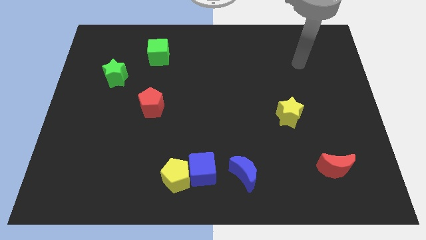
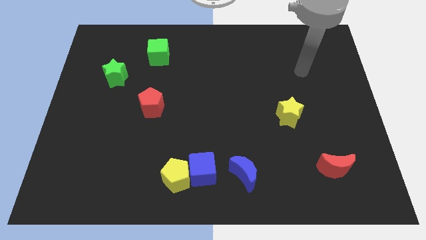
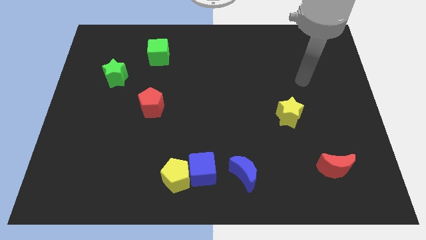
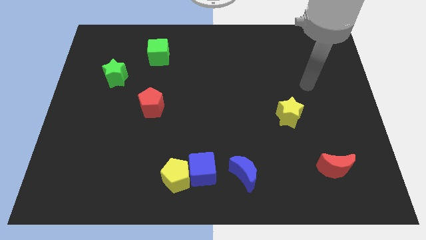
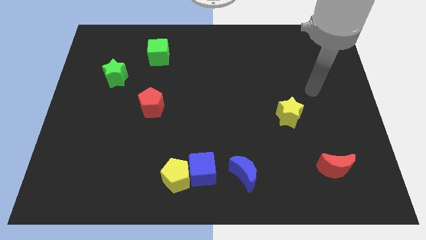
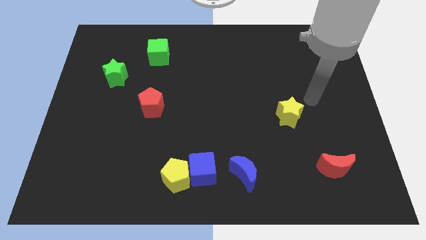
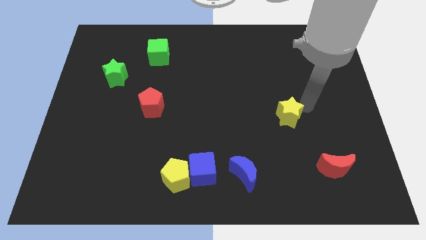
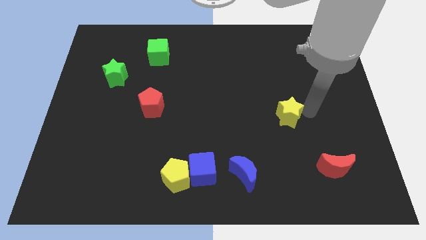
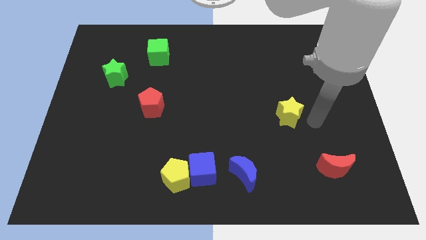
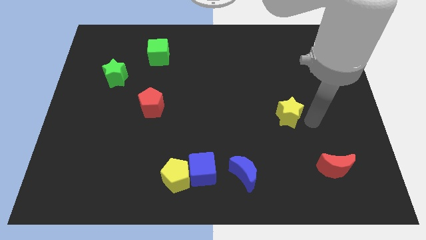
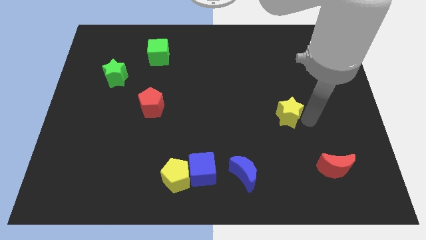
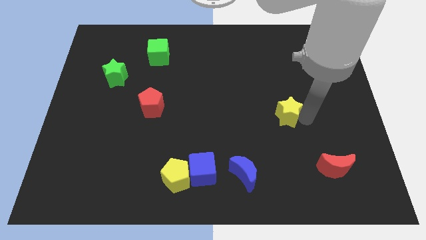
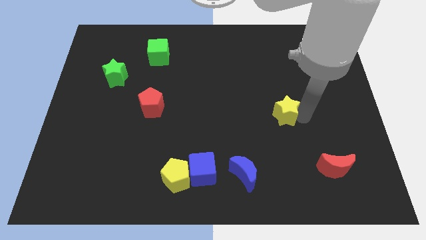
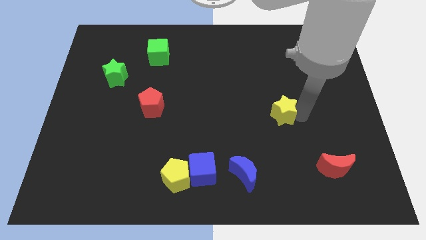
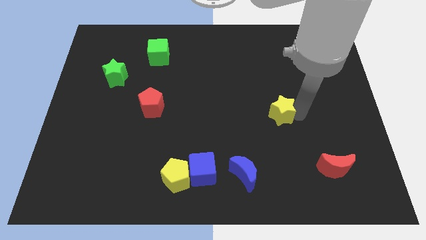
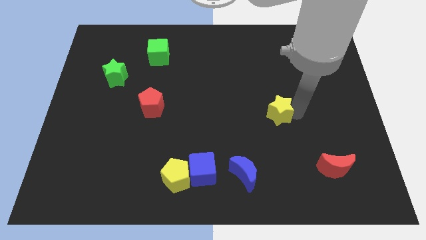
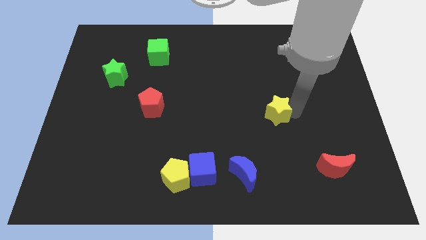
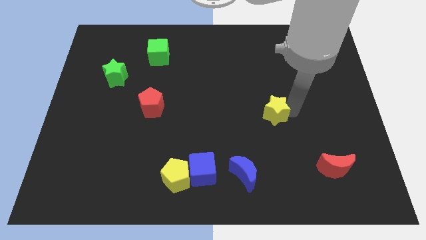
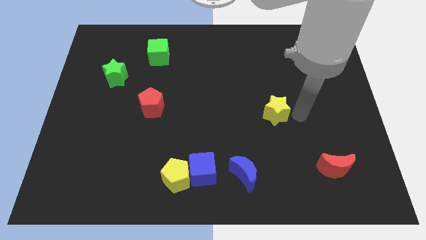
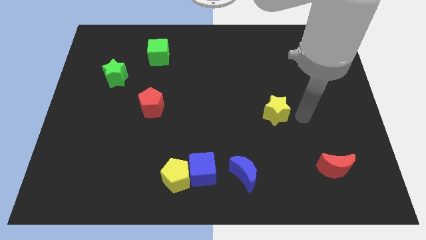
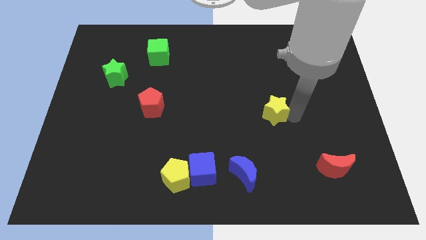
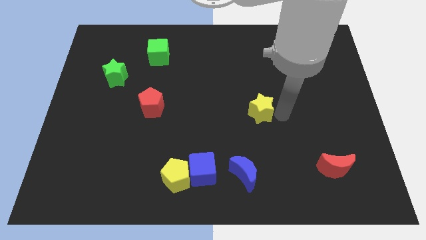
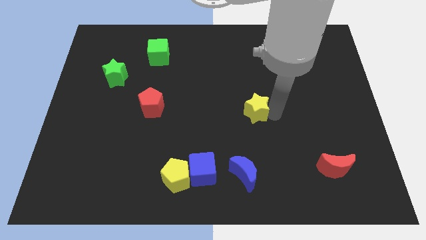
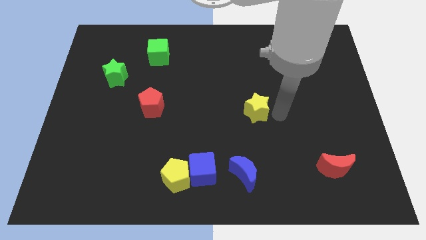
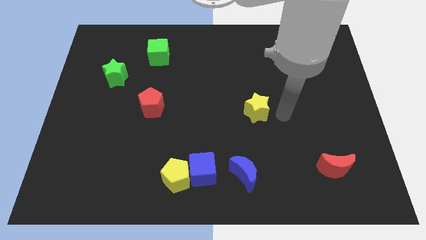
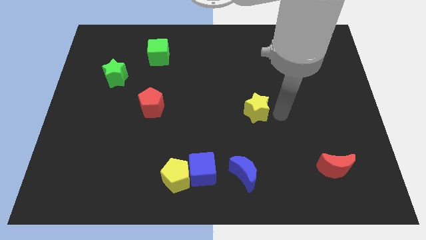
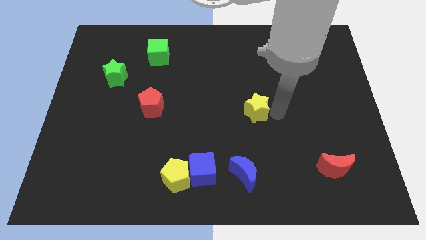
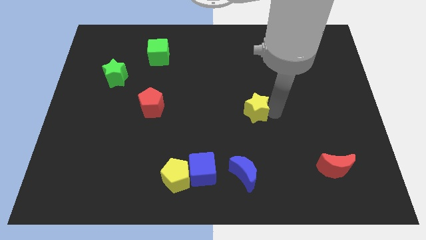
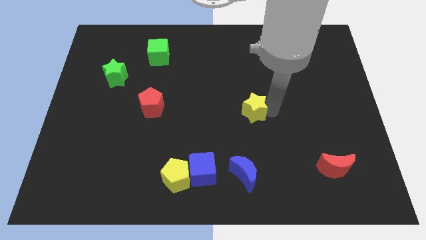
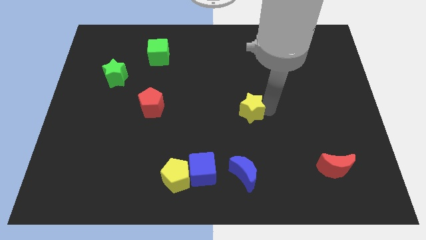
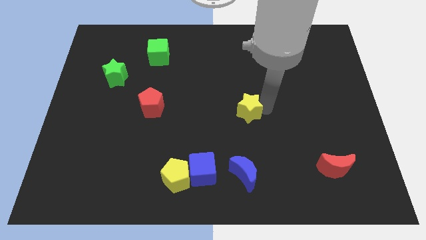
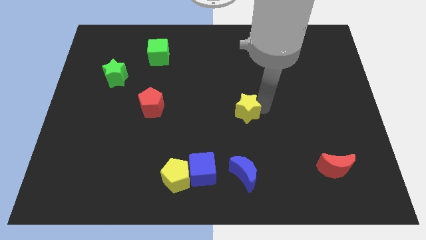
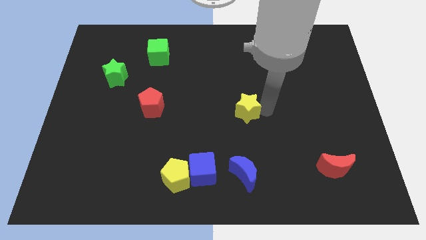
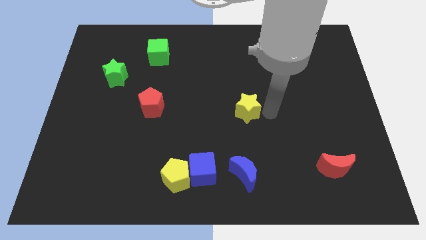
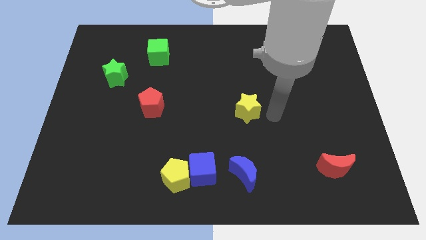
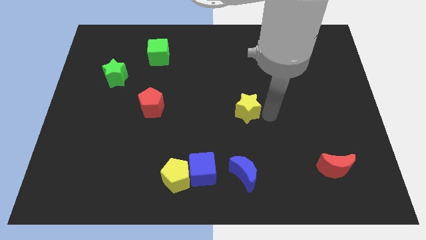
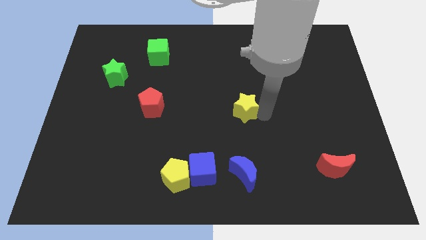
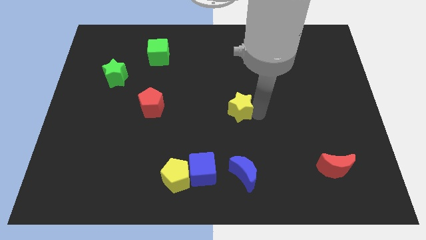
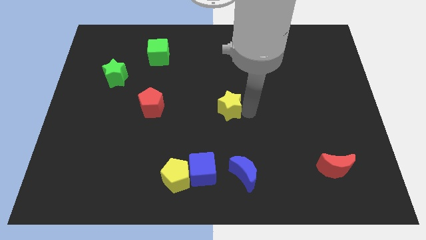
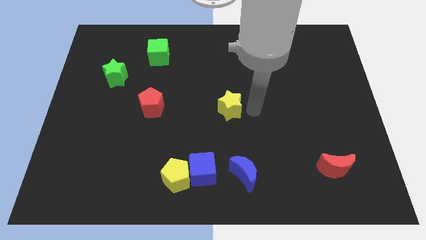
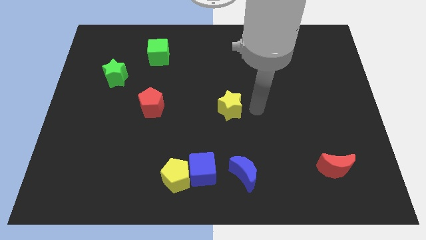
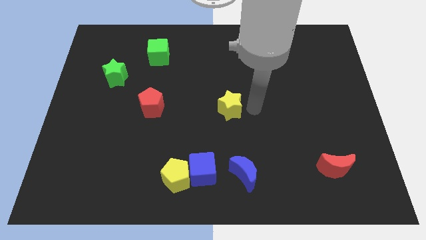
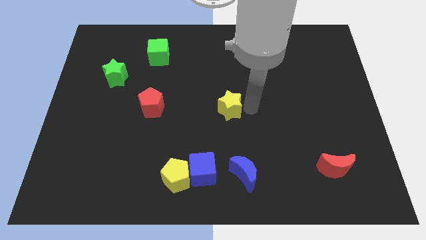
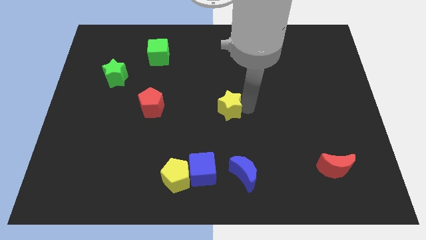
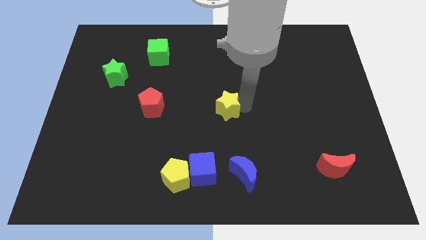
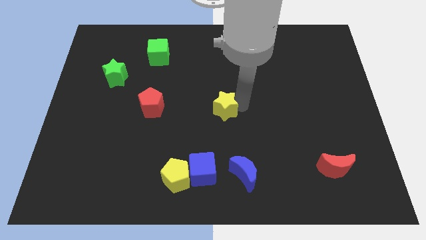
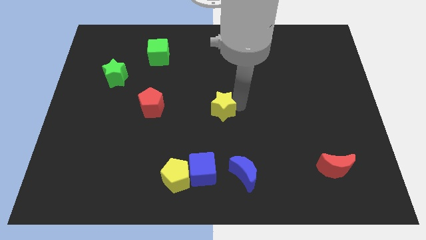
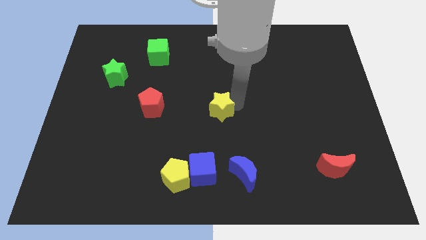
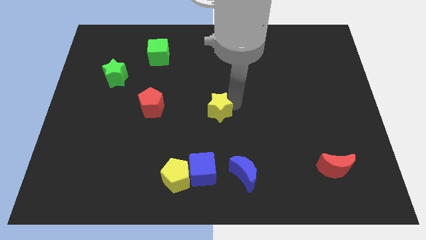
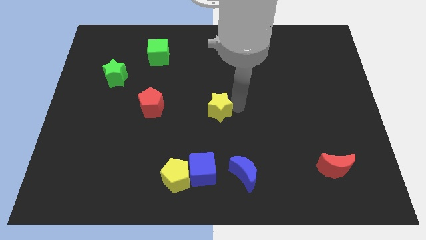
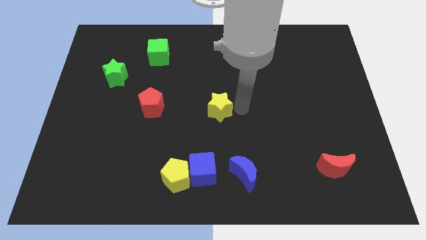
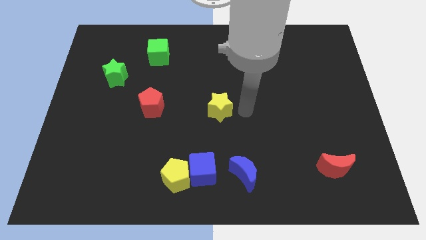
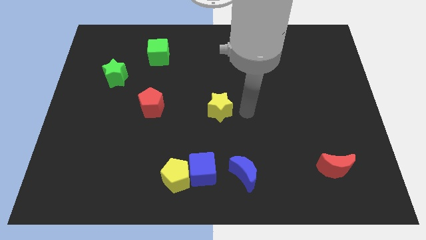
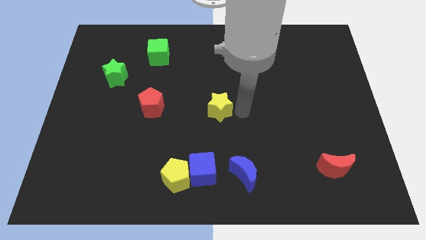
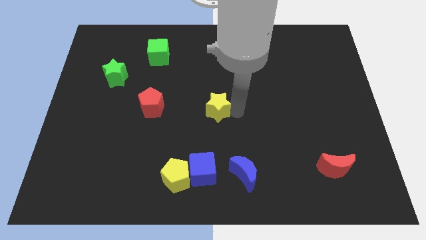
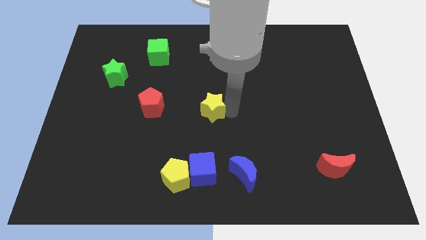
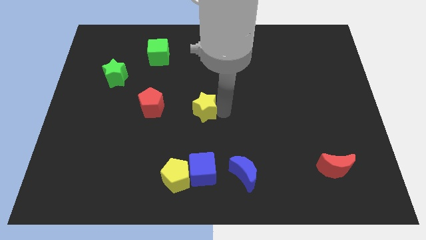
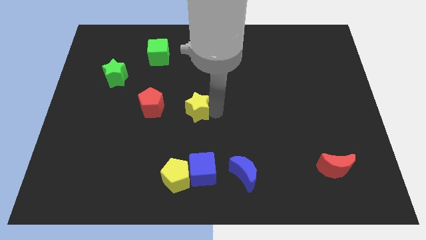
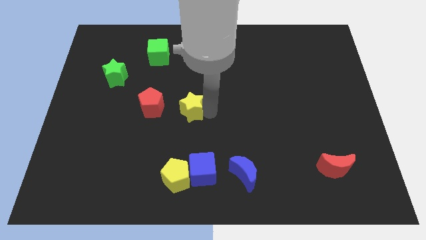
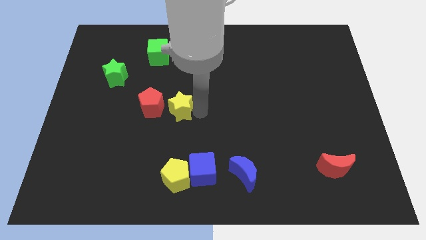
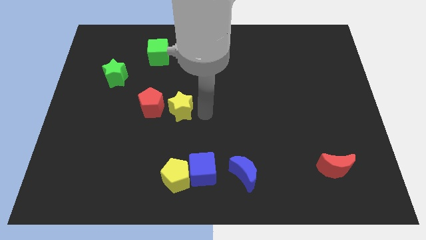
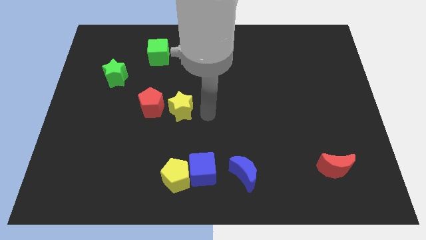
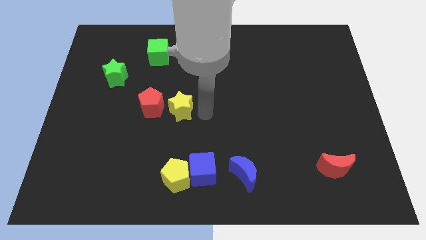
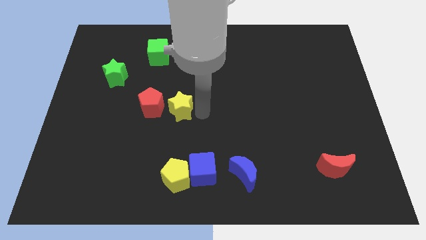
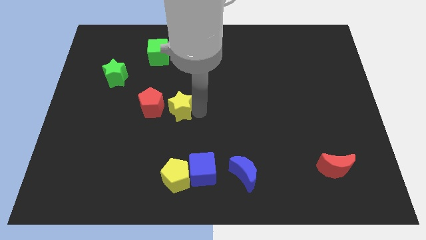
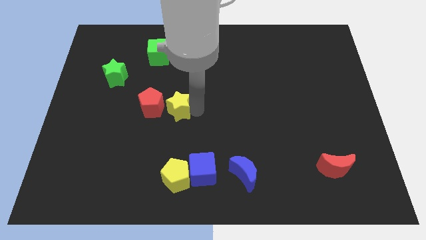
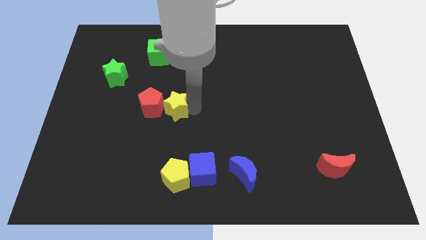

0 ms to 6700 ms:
move the yellow star to the red pentagon

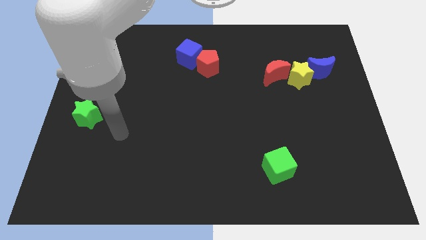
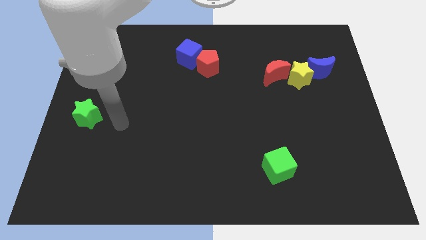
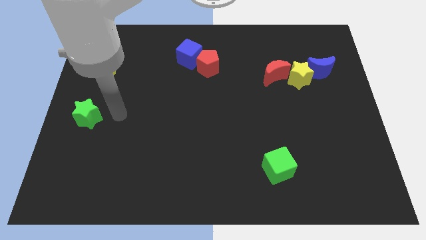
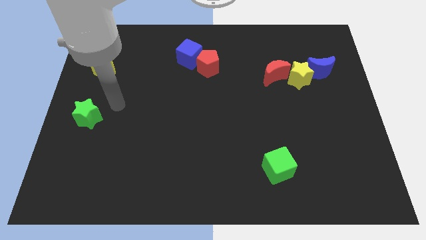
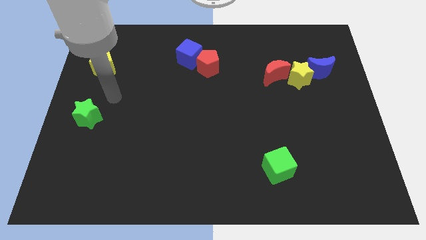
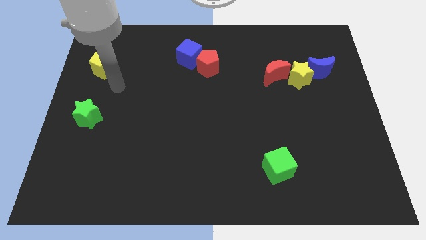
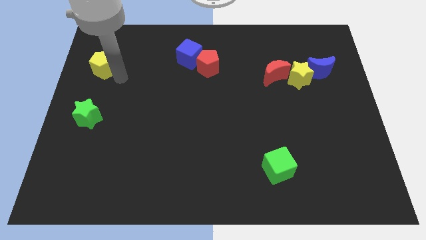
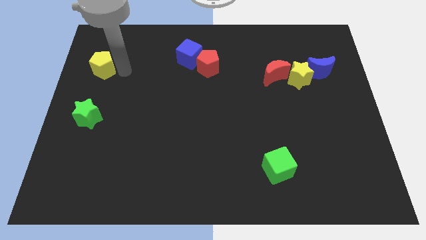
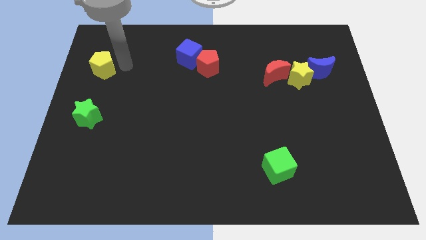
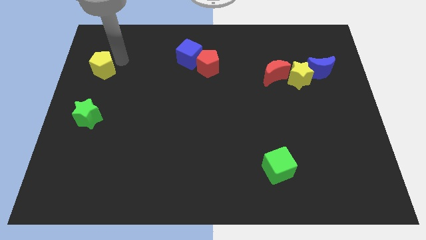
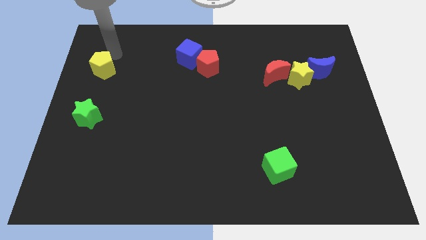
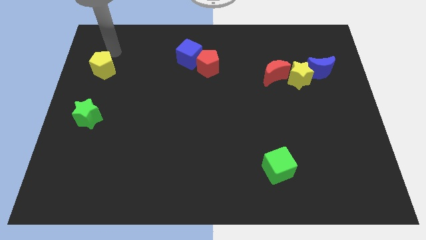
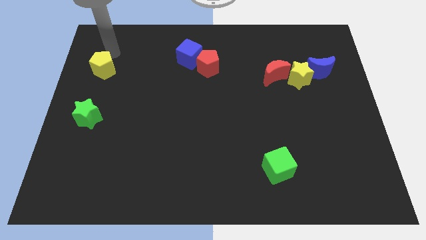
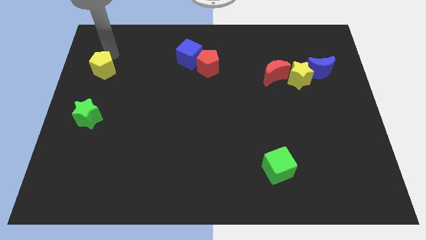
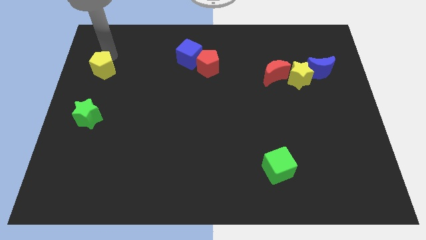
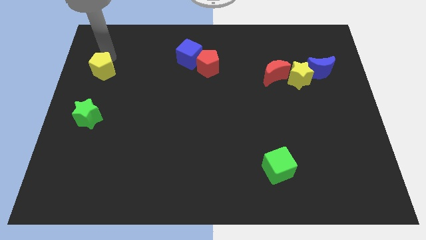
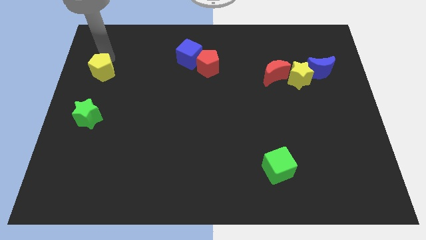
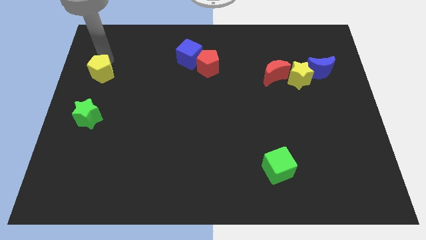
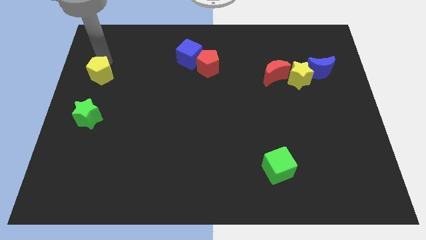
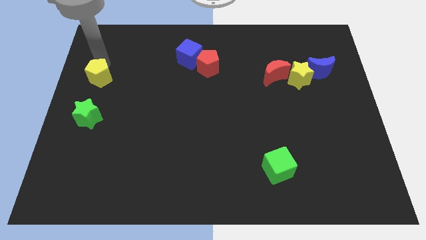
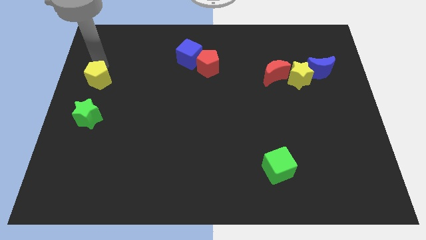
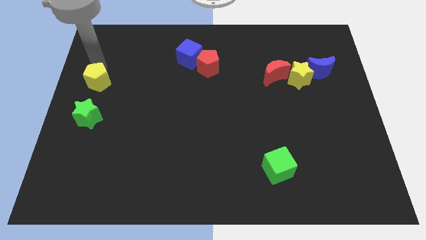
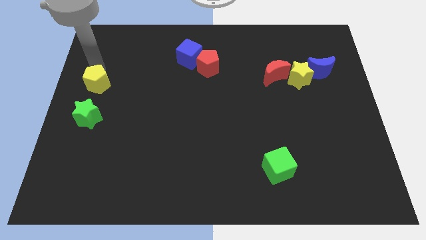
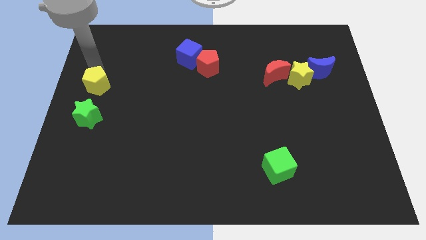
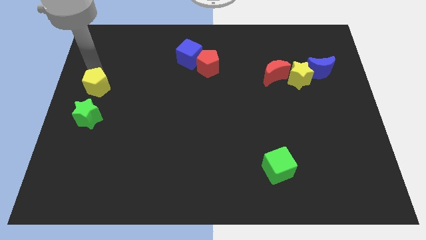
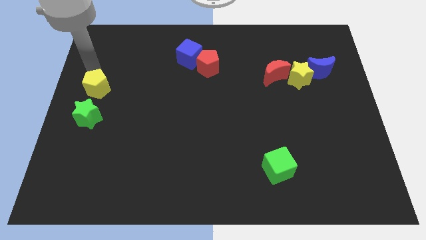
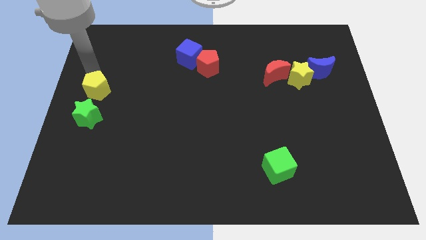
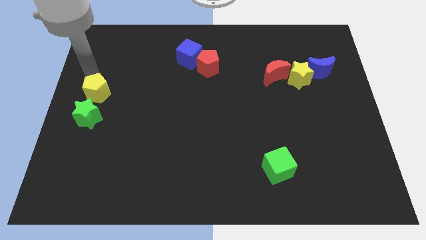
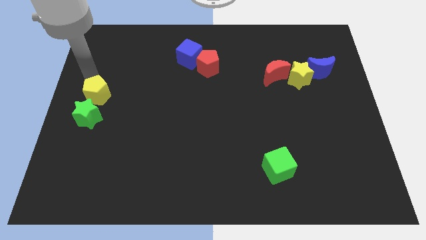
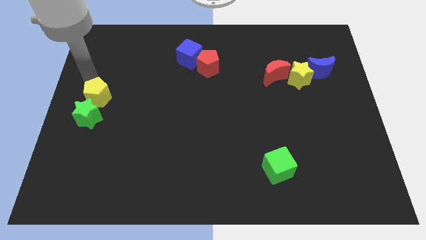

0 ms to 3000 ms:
slide the yellow pentagon to the green star
